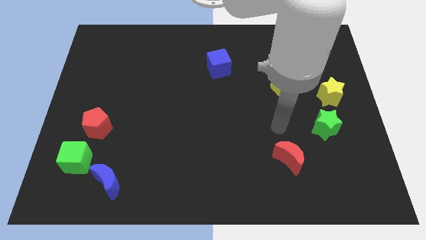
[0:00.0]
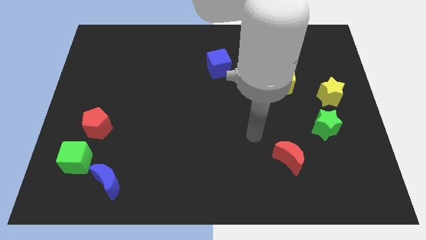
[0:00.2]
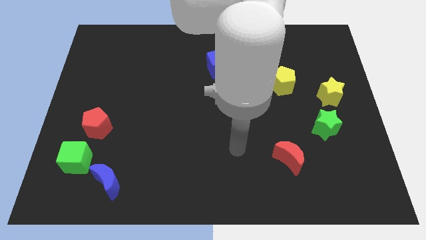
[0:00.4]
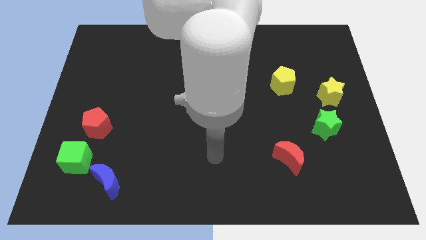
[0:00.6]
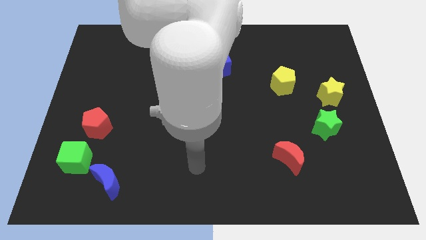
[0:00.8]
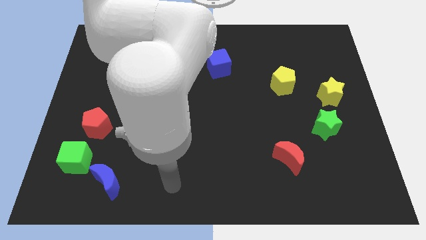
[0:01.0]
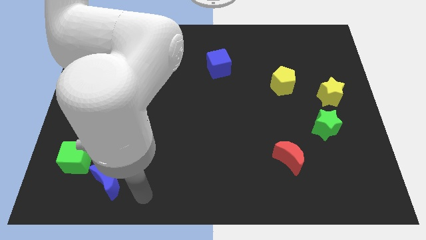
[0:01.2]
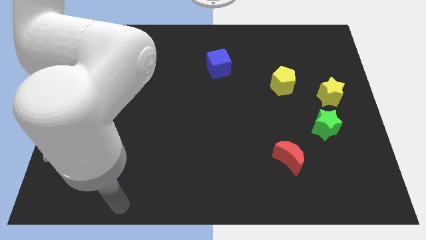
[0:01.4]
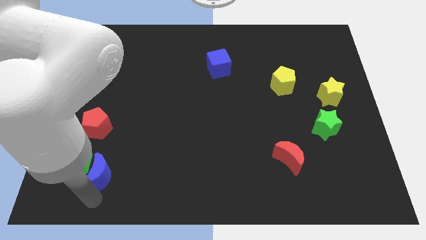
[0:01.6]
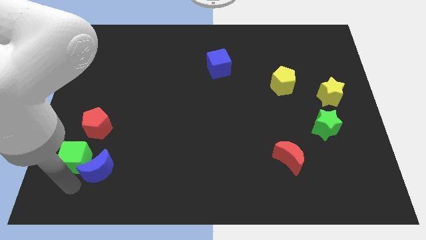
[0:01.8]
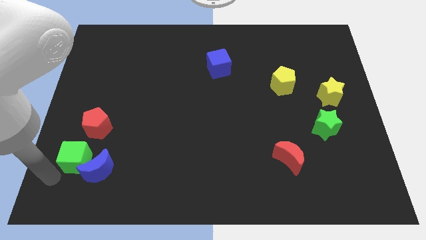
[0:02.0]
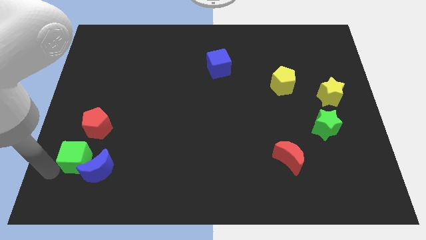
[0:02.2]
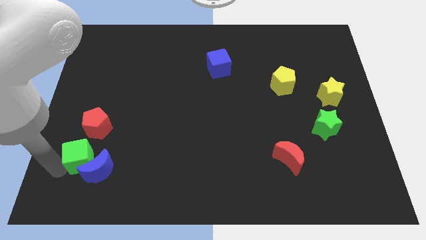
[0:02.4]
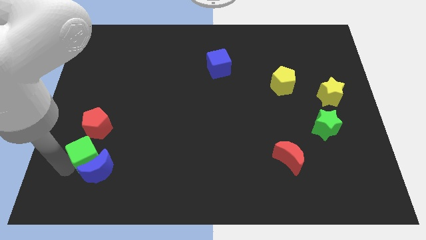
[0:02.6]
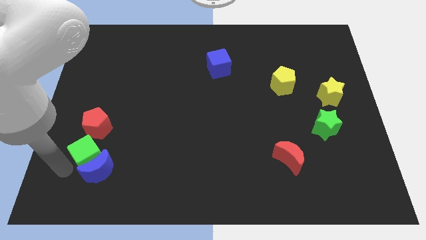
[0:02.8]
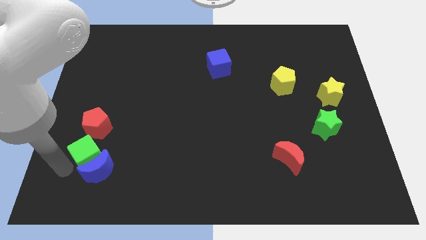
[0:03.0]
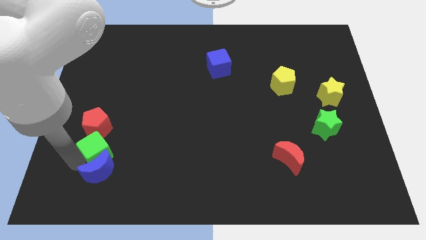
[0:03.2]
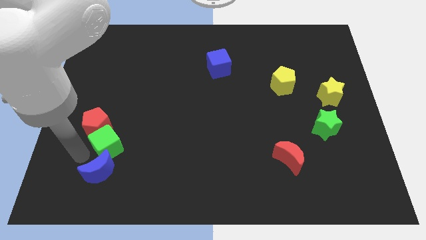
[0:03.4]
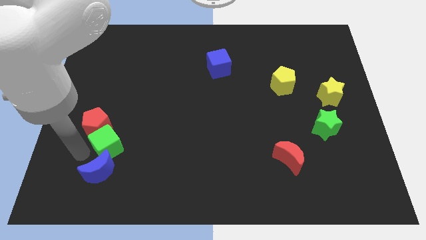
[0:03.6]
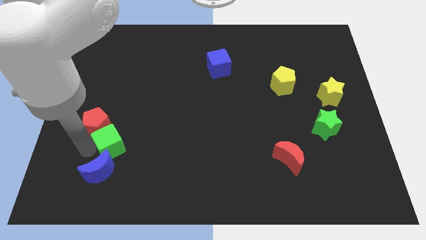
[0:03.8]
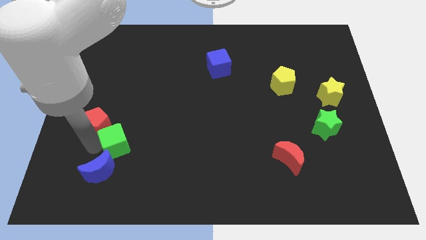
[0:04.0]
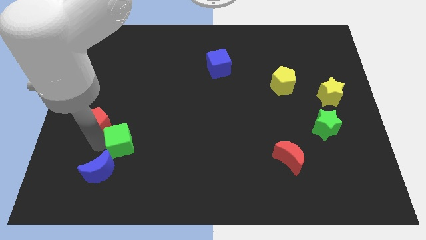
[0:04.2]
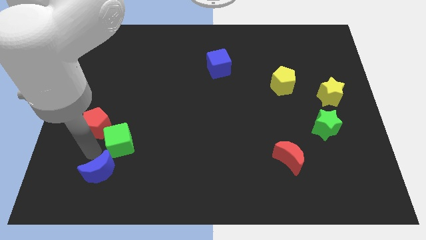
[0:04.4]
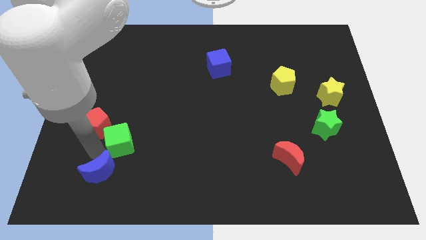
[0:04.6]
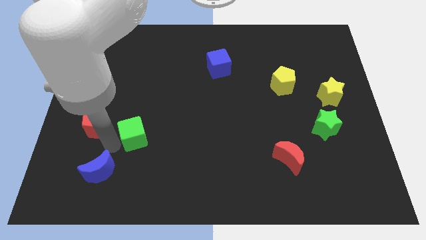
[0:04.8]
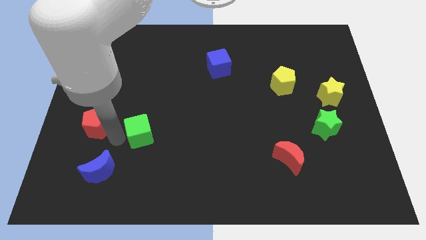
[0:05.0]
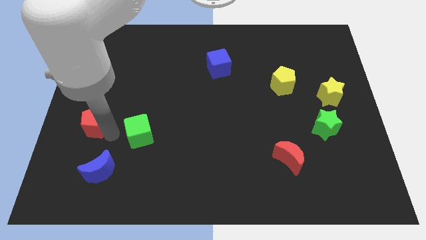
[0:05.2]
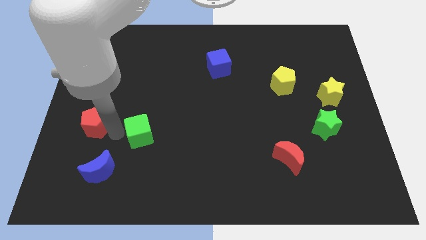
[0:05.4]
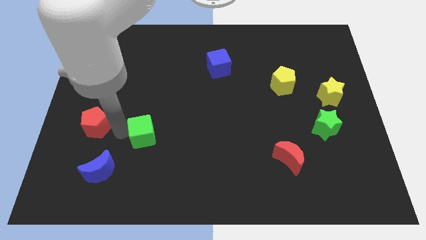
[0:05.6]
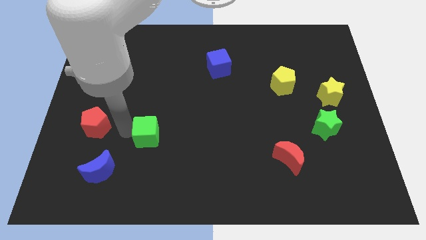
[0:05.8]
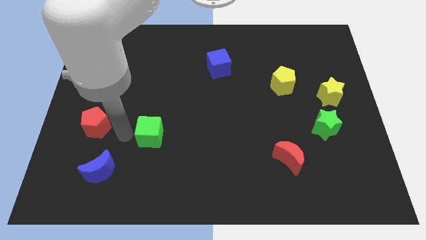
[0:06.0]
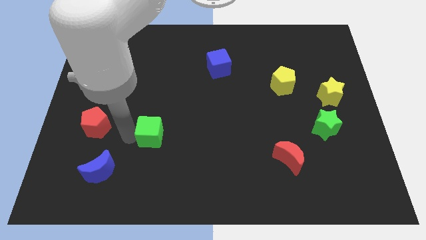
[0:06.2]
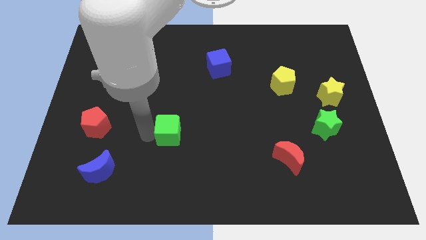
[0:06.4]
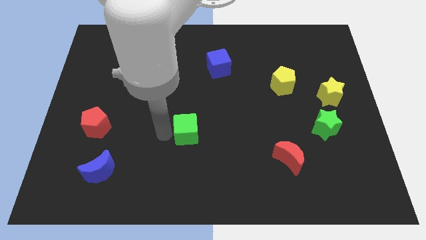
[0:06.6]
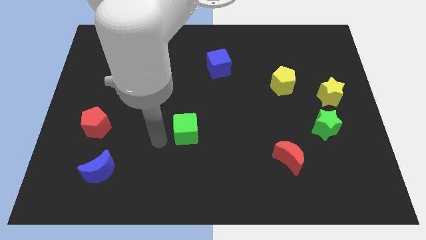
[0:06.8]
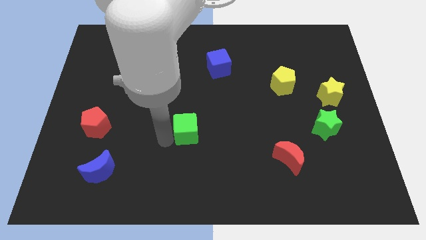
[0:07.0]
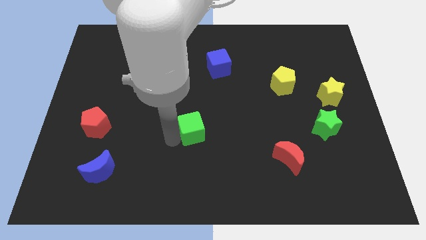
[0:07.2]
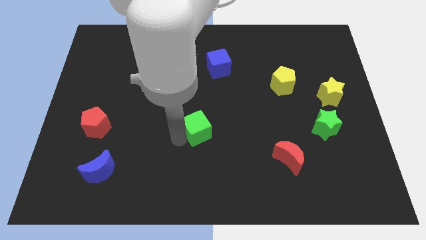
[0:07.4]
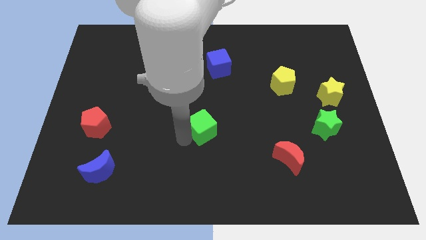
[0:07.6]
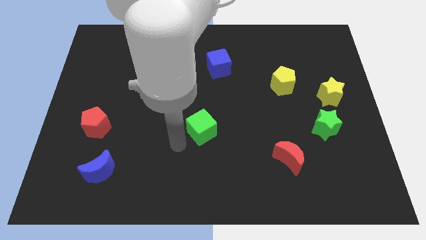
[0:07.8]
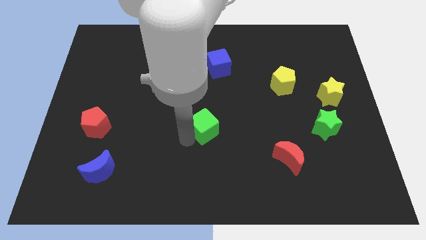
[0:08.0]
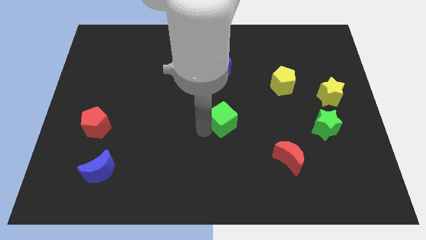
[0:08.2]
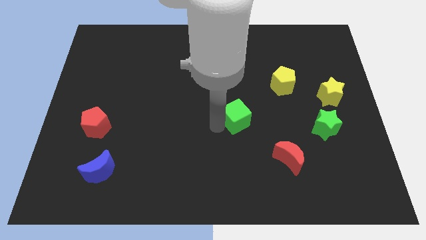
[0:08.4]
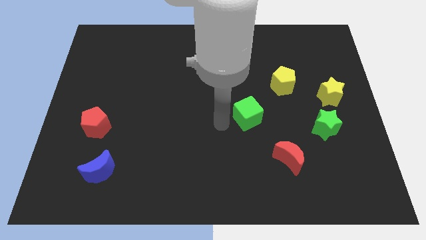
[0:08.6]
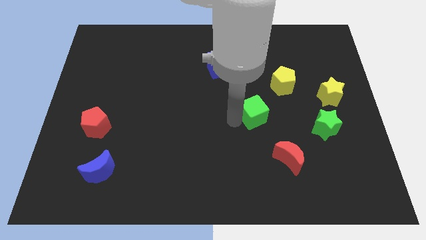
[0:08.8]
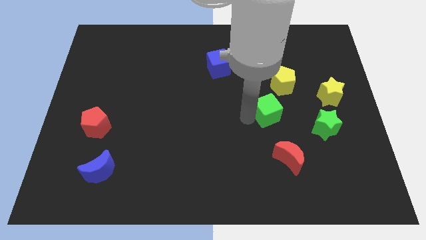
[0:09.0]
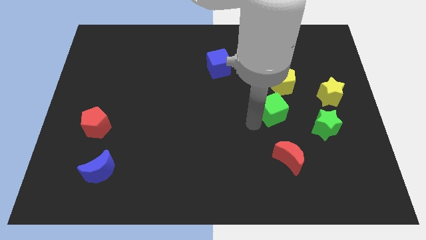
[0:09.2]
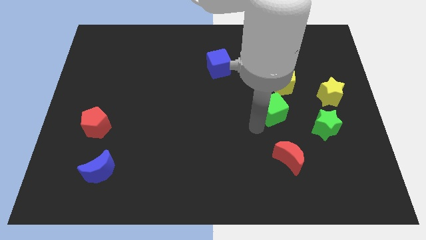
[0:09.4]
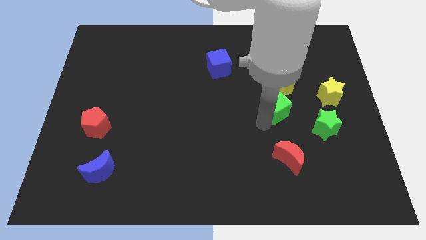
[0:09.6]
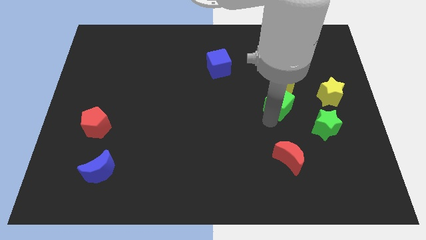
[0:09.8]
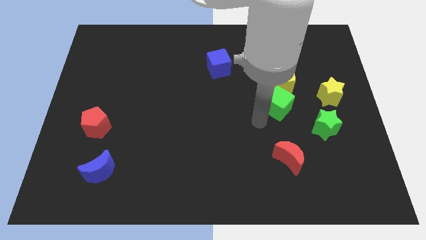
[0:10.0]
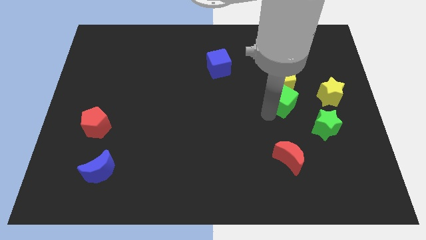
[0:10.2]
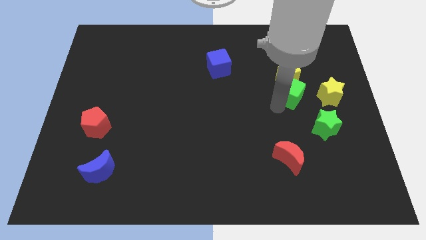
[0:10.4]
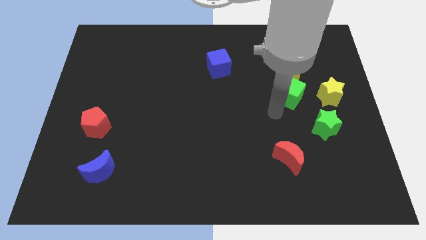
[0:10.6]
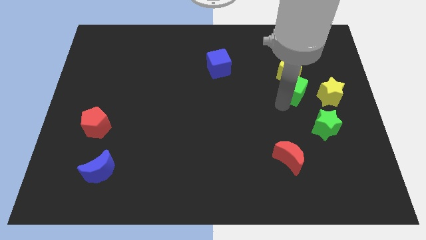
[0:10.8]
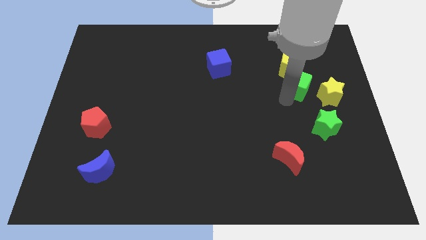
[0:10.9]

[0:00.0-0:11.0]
put the green cube to the top left side of the yellow star

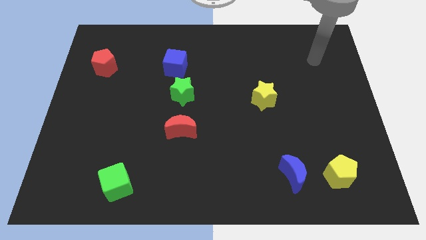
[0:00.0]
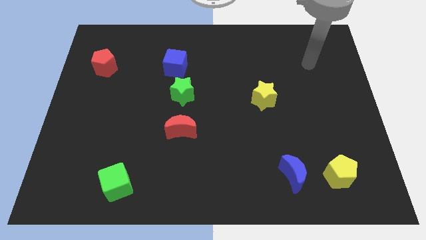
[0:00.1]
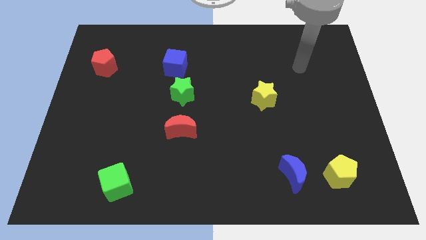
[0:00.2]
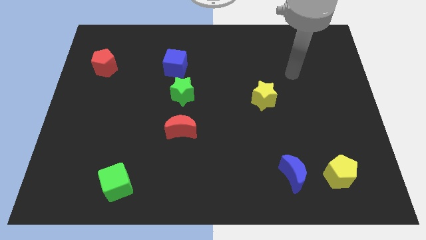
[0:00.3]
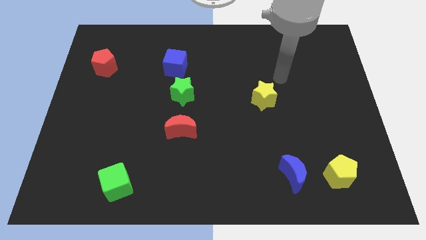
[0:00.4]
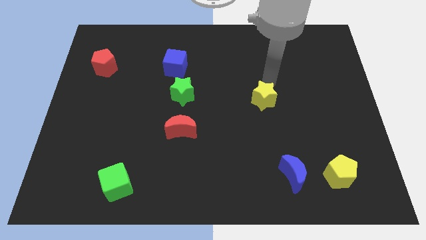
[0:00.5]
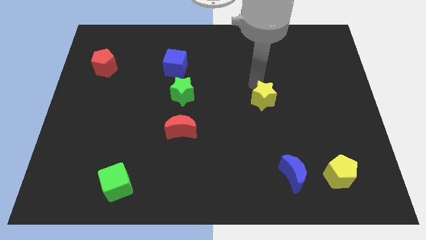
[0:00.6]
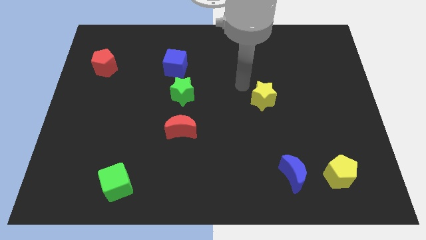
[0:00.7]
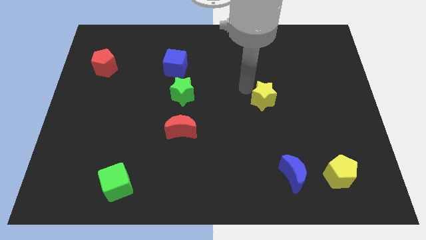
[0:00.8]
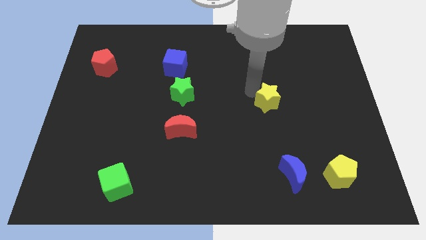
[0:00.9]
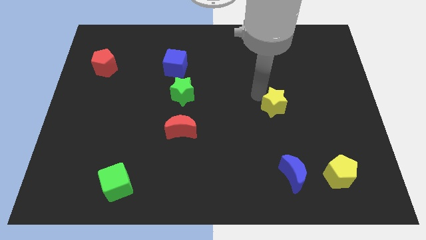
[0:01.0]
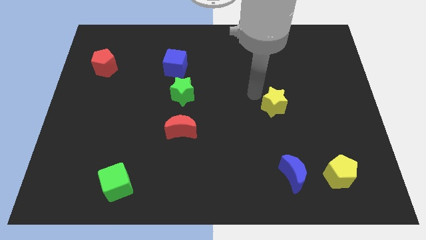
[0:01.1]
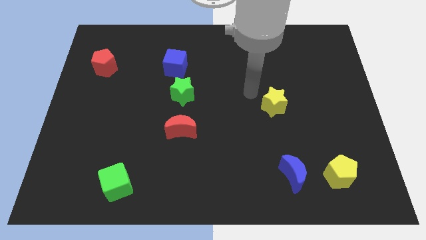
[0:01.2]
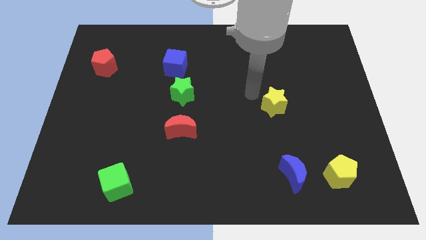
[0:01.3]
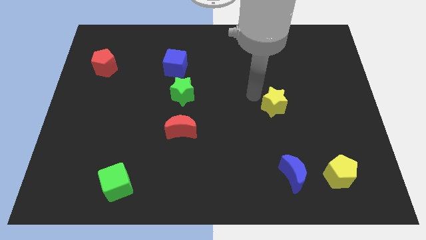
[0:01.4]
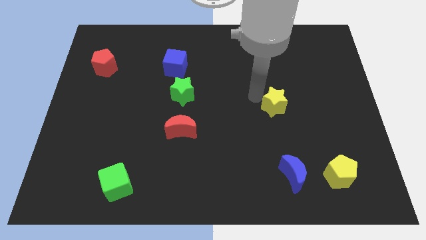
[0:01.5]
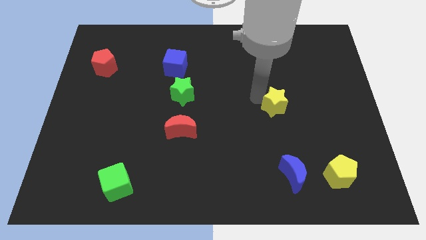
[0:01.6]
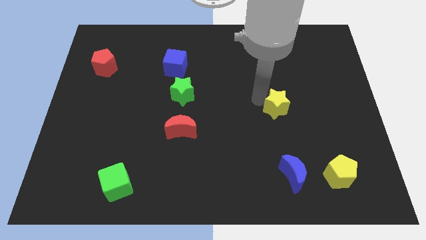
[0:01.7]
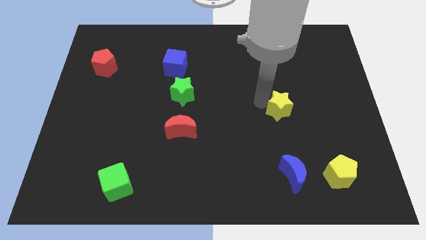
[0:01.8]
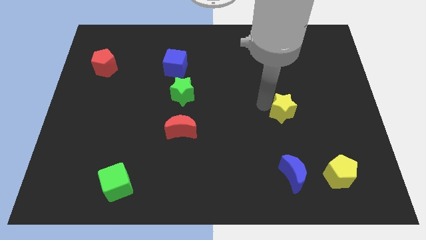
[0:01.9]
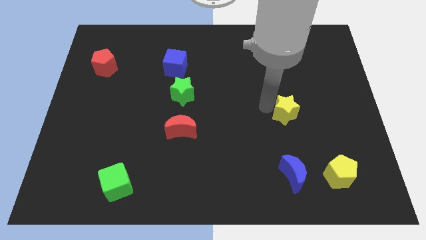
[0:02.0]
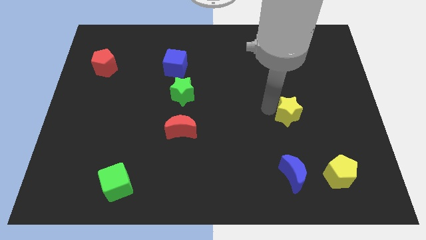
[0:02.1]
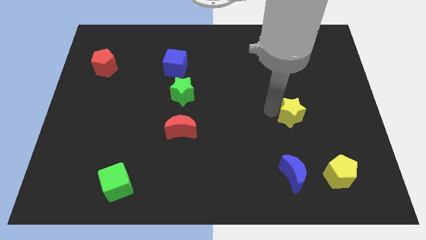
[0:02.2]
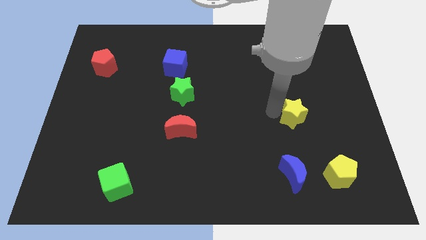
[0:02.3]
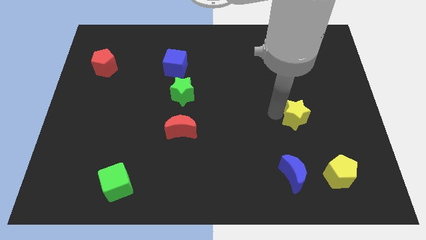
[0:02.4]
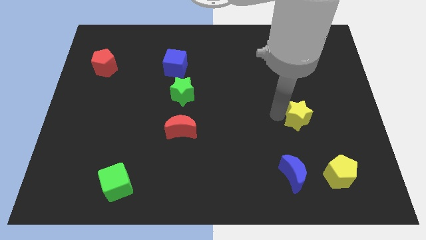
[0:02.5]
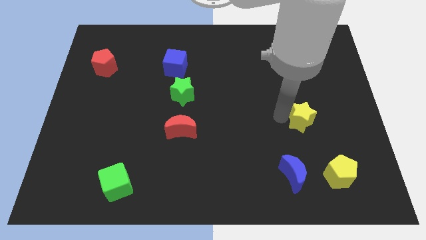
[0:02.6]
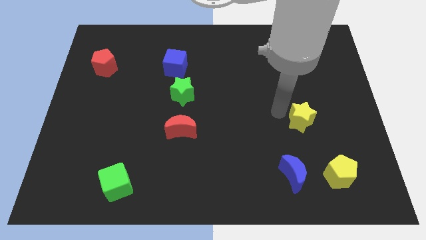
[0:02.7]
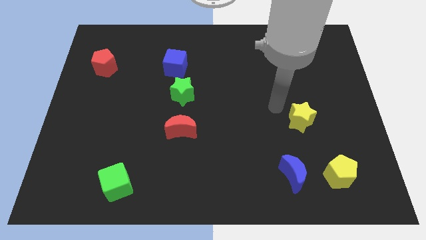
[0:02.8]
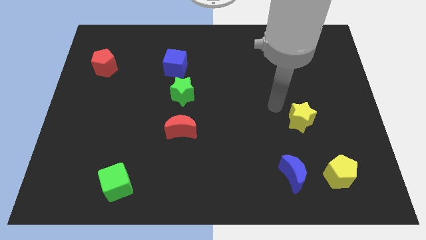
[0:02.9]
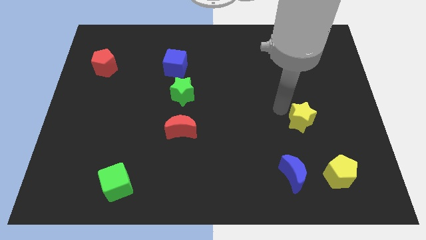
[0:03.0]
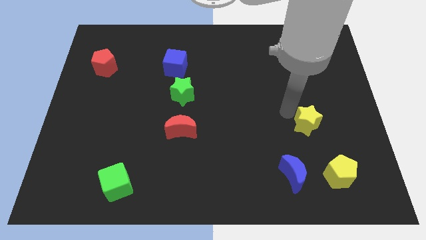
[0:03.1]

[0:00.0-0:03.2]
move the yellow star to the top side of the yellow pentagon
